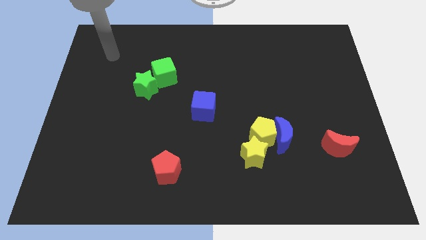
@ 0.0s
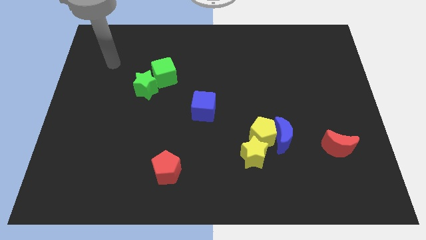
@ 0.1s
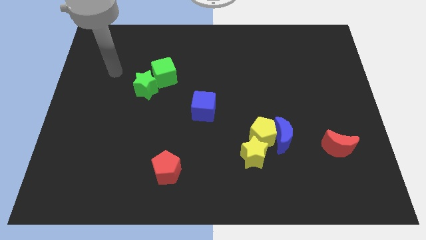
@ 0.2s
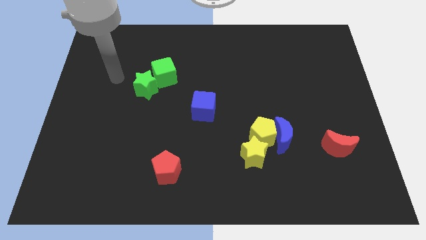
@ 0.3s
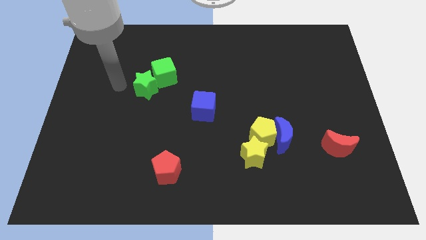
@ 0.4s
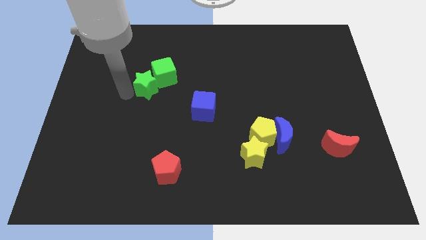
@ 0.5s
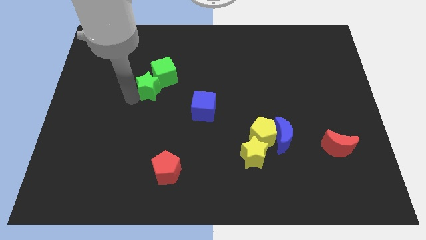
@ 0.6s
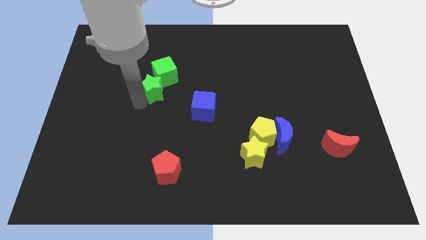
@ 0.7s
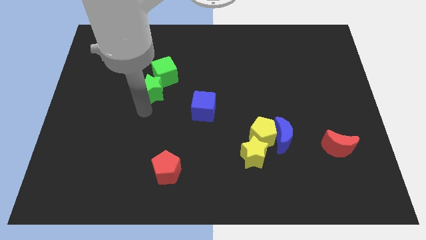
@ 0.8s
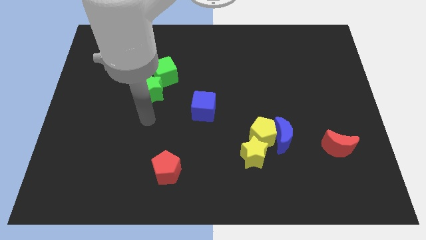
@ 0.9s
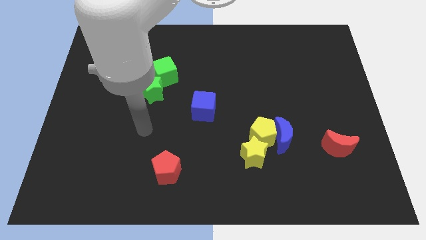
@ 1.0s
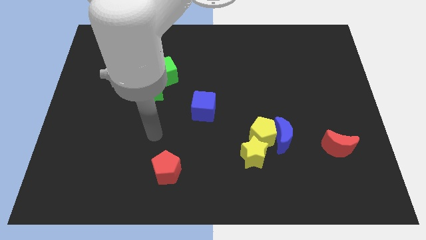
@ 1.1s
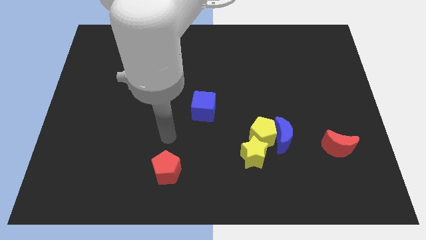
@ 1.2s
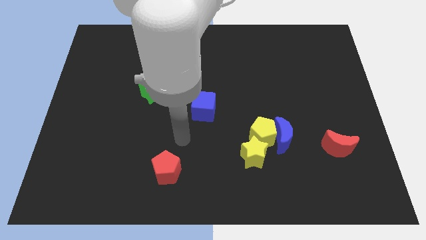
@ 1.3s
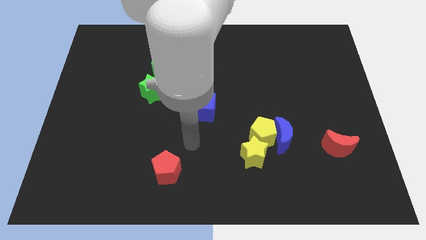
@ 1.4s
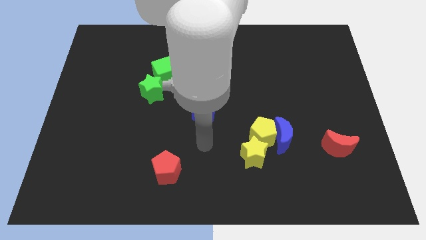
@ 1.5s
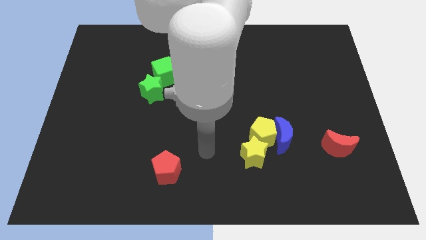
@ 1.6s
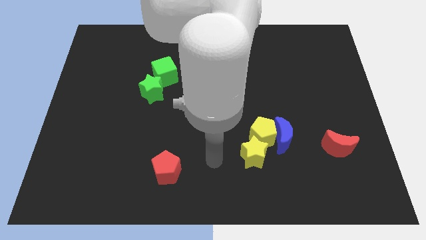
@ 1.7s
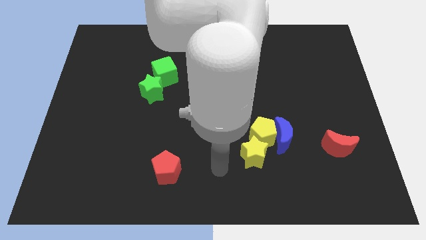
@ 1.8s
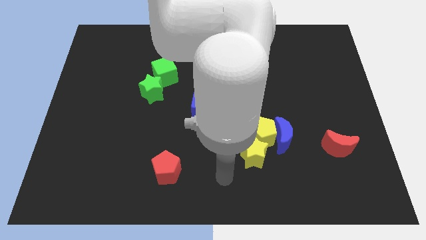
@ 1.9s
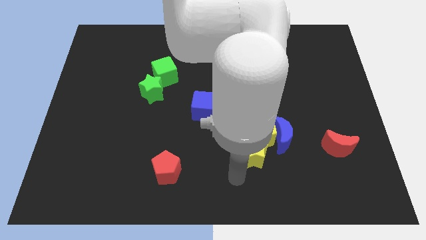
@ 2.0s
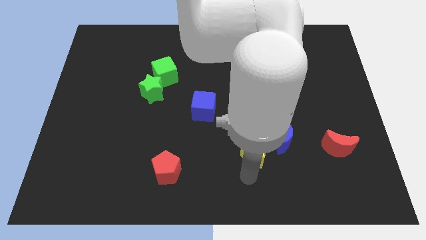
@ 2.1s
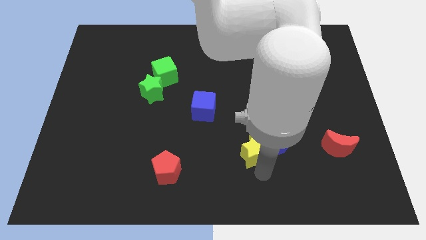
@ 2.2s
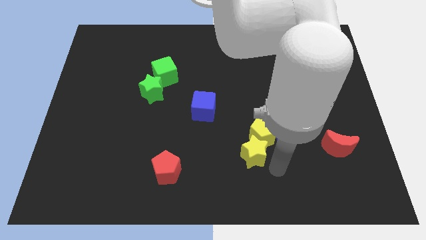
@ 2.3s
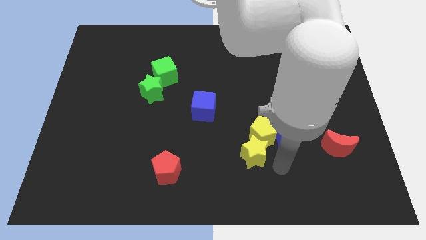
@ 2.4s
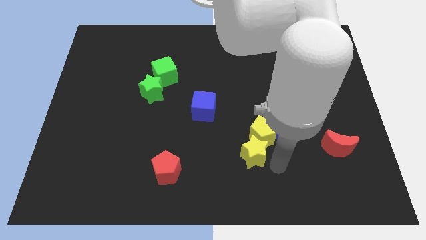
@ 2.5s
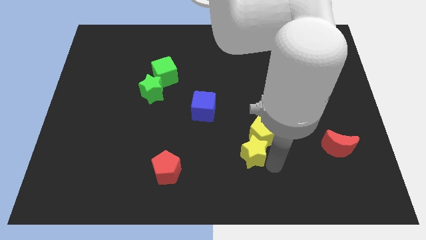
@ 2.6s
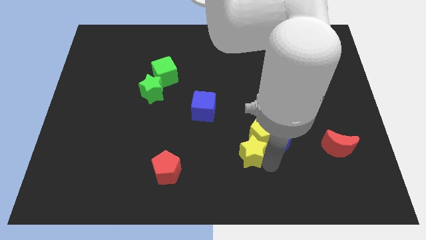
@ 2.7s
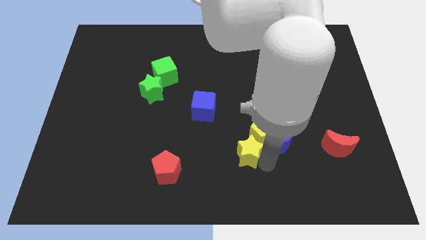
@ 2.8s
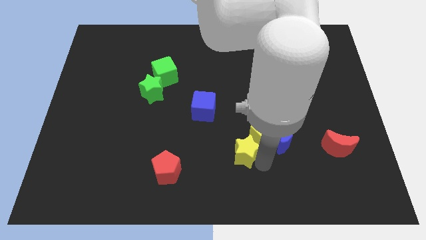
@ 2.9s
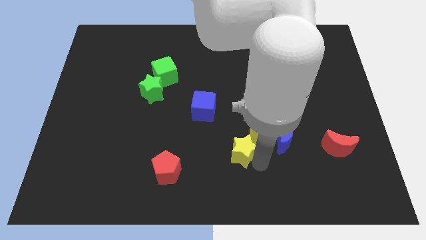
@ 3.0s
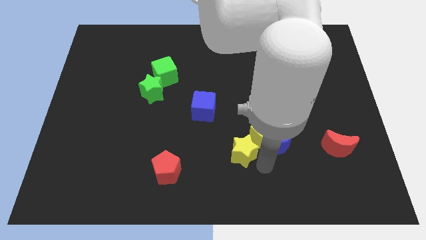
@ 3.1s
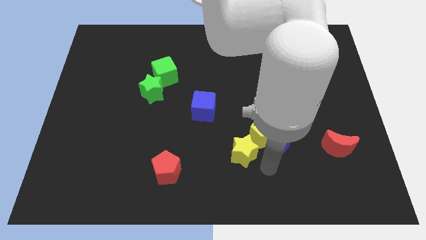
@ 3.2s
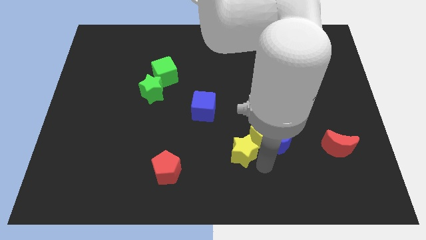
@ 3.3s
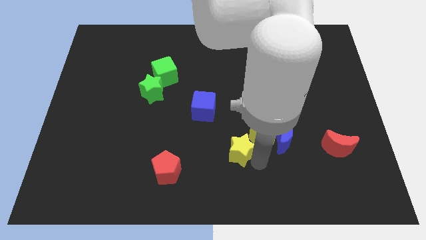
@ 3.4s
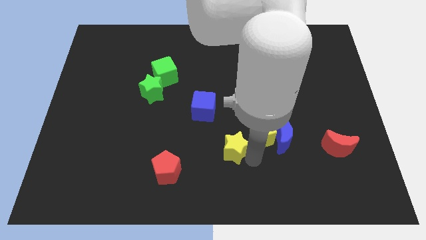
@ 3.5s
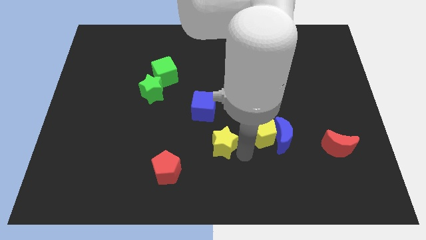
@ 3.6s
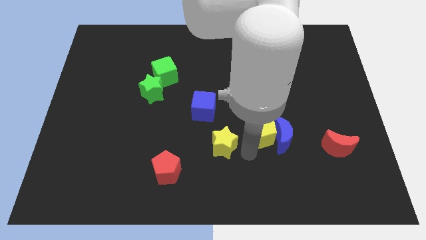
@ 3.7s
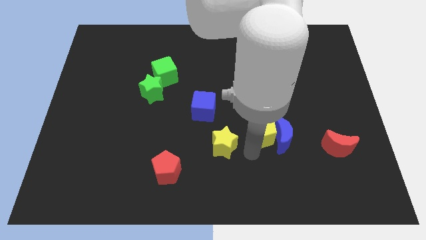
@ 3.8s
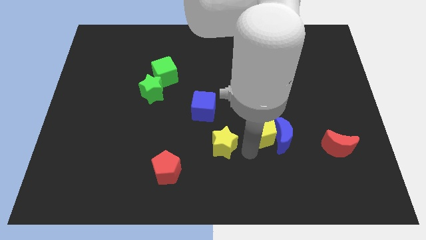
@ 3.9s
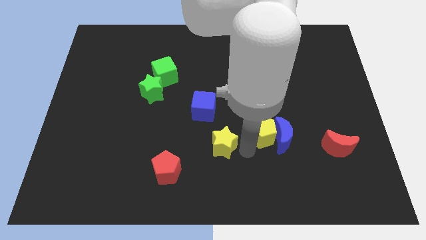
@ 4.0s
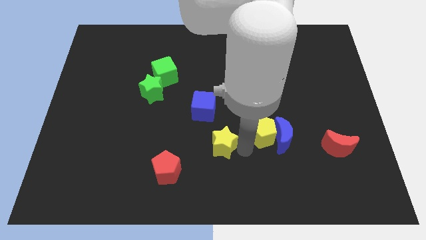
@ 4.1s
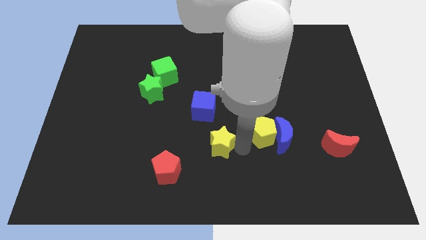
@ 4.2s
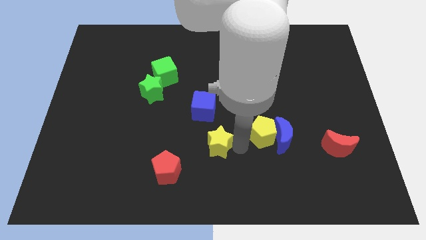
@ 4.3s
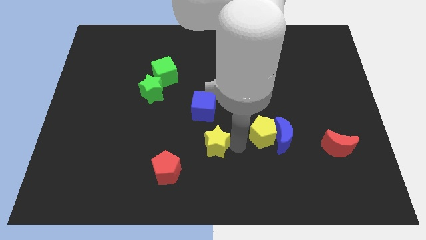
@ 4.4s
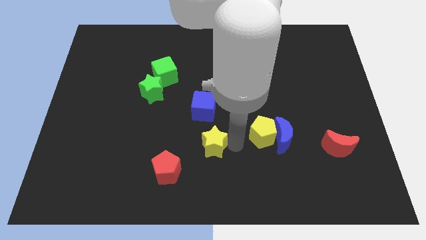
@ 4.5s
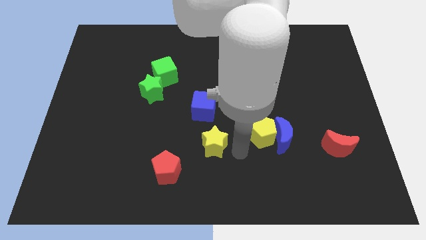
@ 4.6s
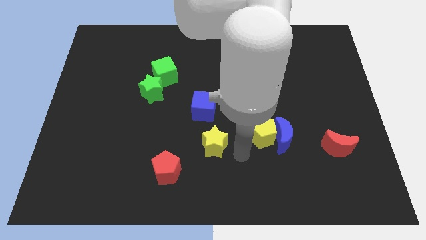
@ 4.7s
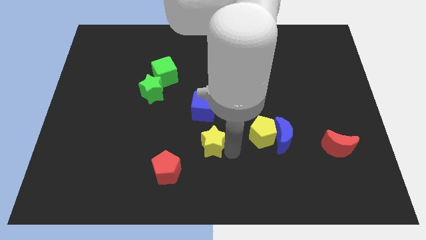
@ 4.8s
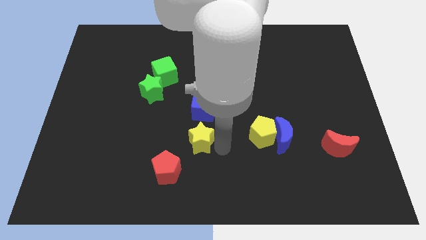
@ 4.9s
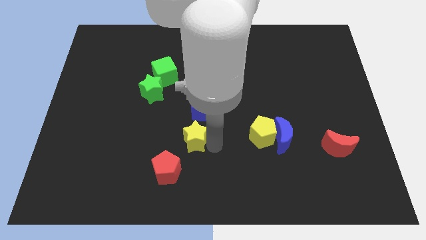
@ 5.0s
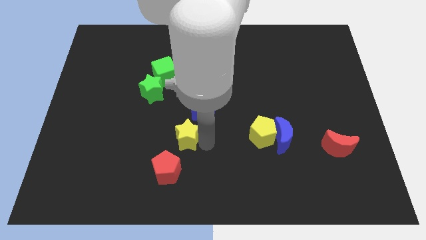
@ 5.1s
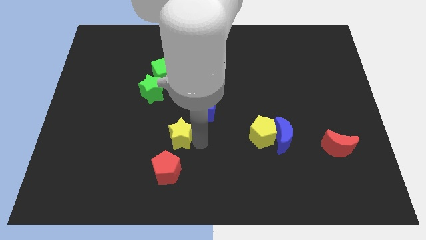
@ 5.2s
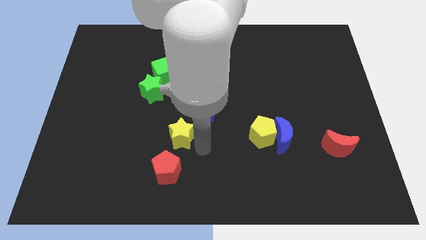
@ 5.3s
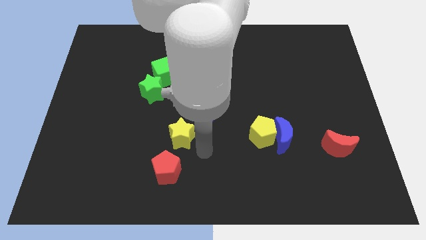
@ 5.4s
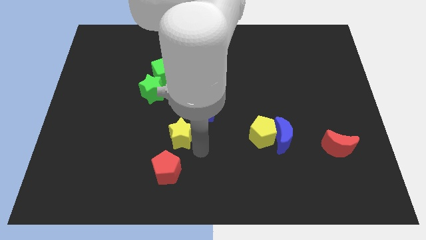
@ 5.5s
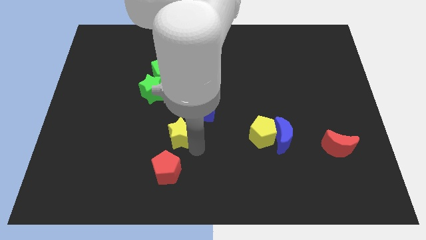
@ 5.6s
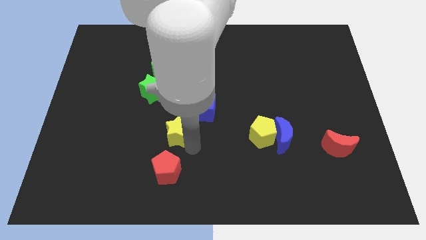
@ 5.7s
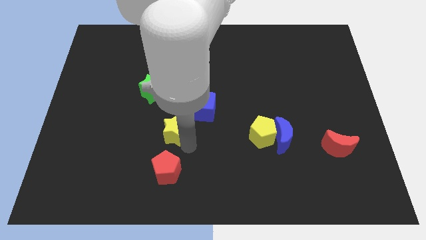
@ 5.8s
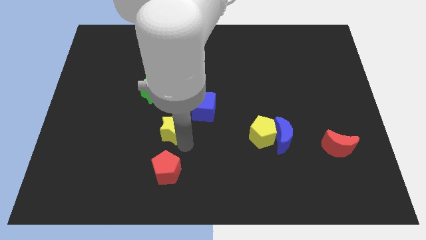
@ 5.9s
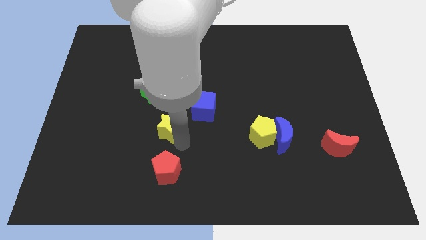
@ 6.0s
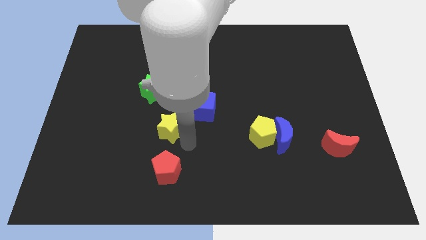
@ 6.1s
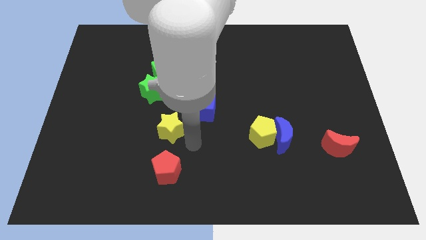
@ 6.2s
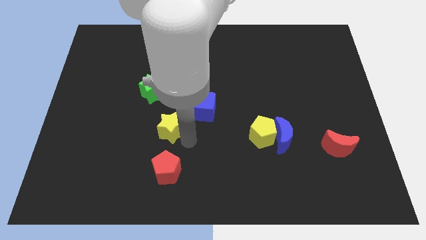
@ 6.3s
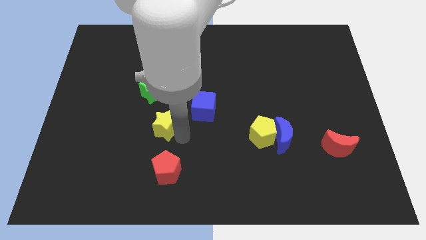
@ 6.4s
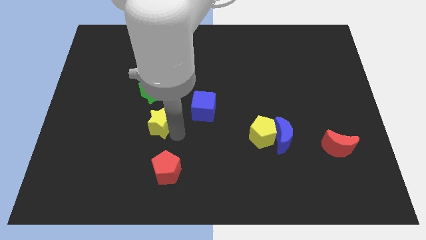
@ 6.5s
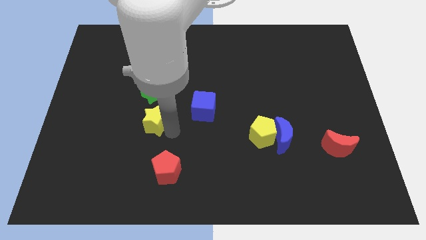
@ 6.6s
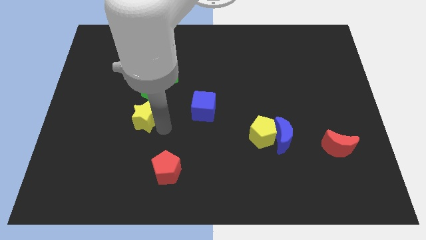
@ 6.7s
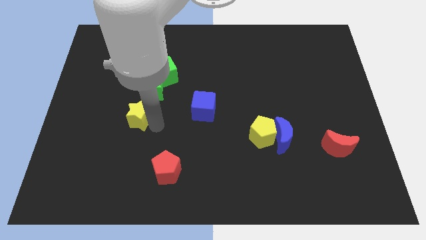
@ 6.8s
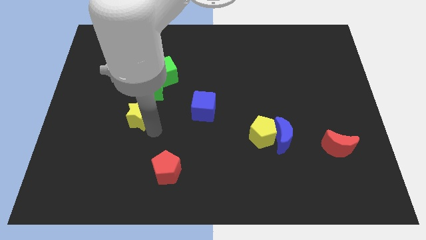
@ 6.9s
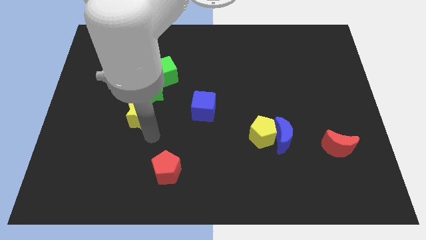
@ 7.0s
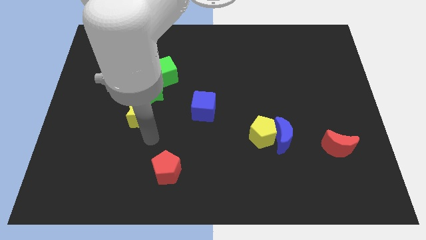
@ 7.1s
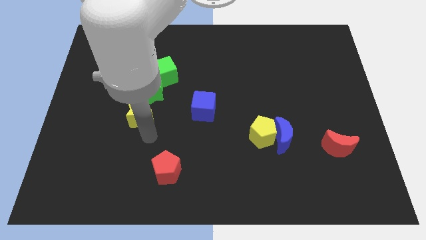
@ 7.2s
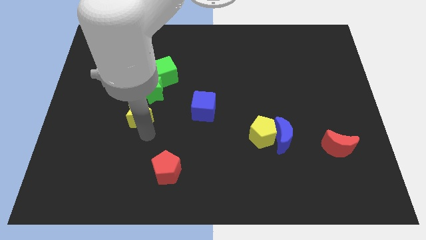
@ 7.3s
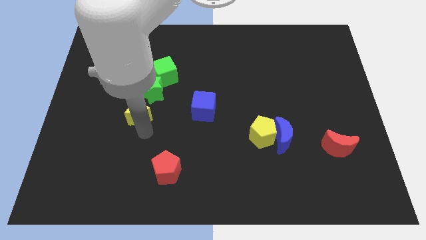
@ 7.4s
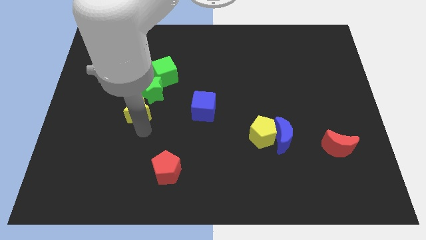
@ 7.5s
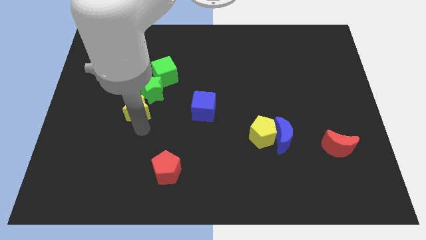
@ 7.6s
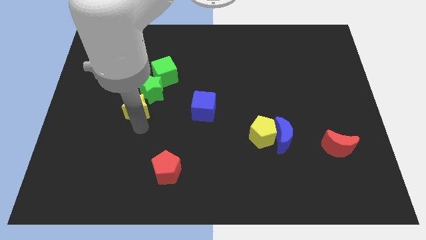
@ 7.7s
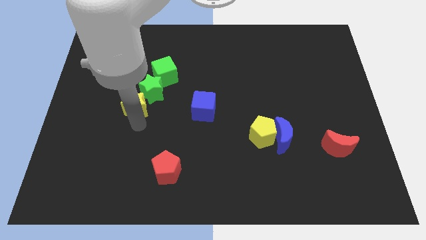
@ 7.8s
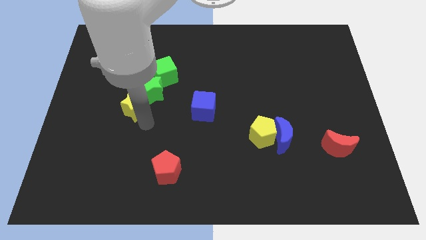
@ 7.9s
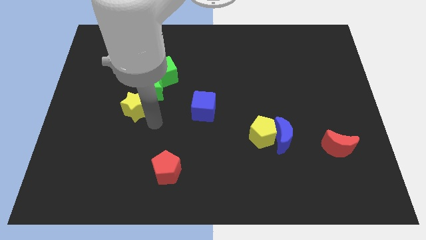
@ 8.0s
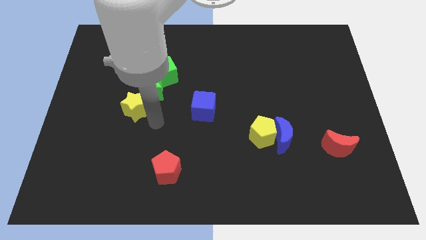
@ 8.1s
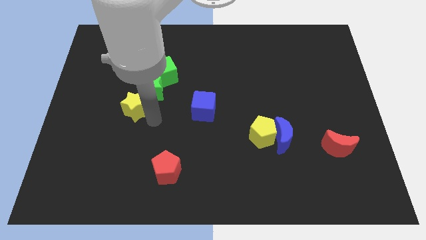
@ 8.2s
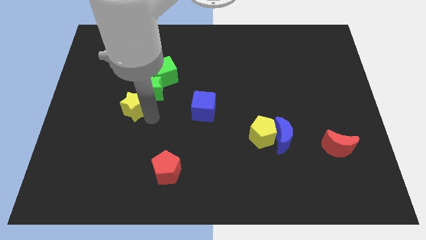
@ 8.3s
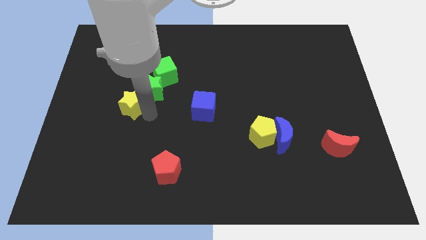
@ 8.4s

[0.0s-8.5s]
push the yellow star left of the green star
